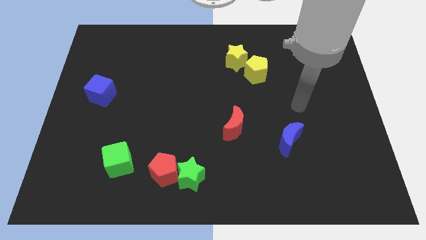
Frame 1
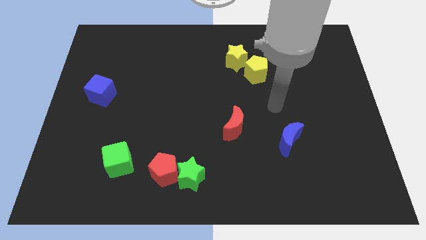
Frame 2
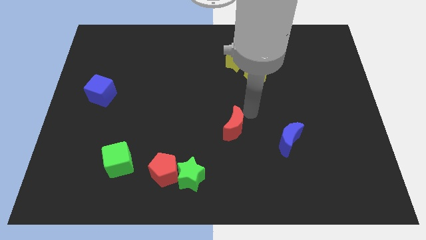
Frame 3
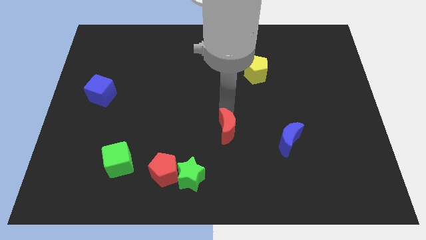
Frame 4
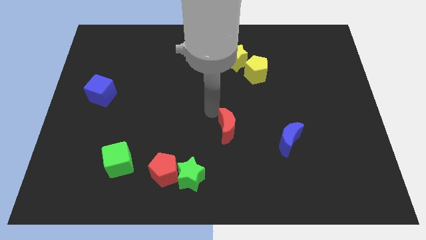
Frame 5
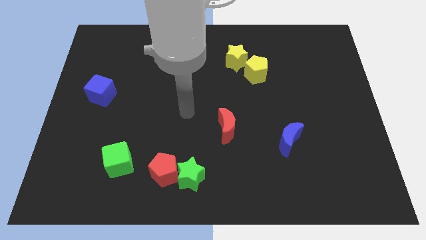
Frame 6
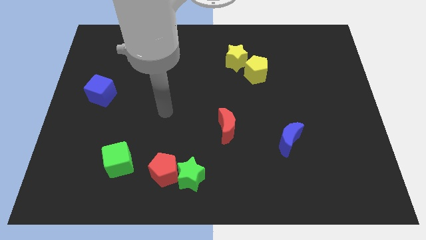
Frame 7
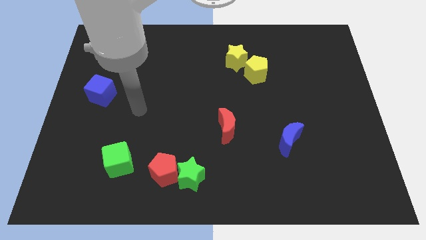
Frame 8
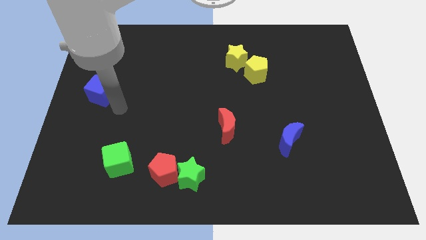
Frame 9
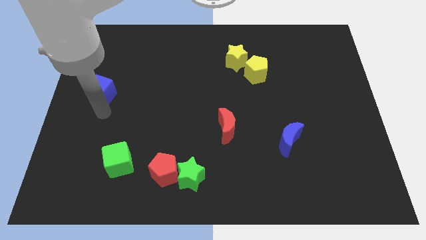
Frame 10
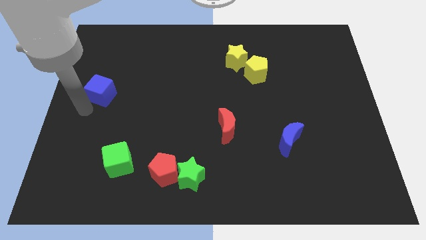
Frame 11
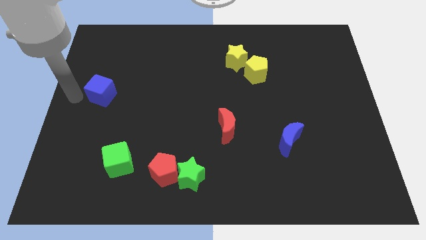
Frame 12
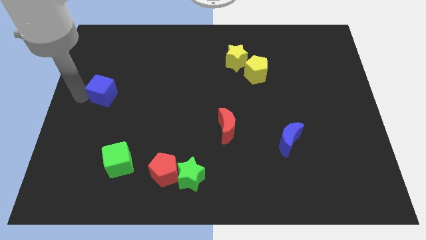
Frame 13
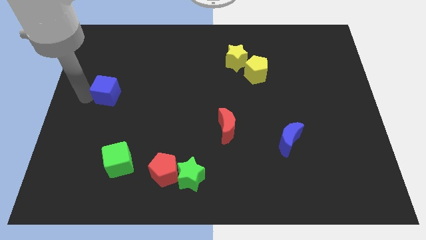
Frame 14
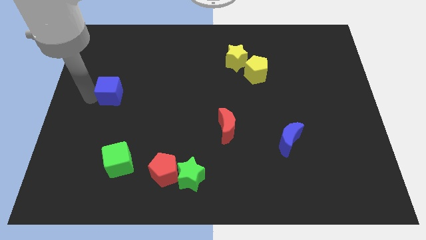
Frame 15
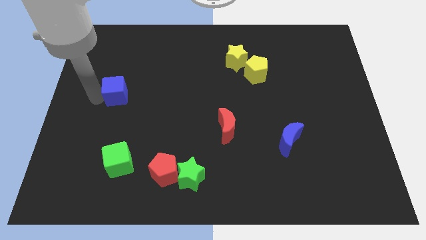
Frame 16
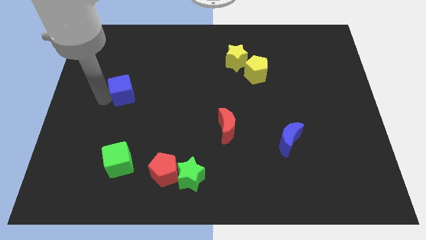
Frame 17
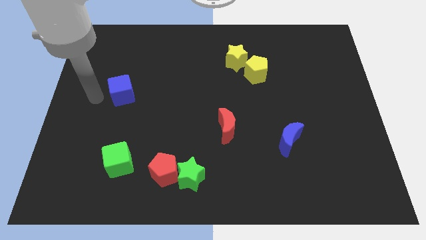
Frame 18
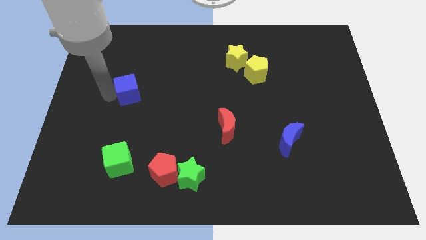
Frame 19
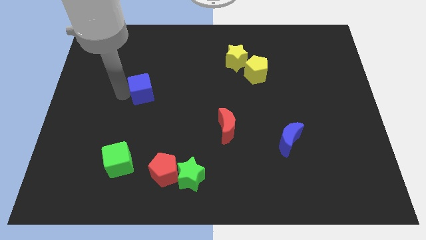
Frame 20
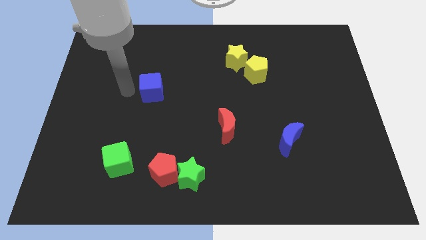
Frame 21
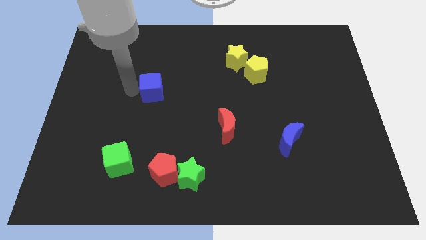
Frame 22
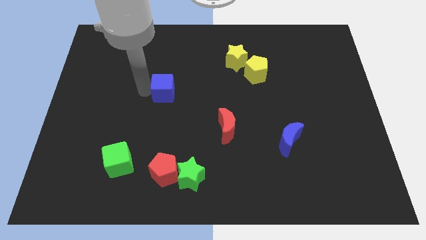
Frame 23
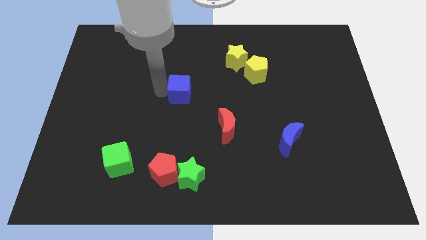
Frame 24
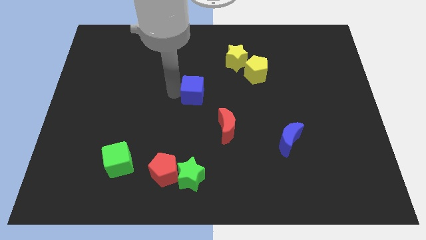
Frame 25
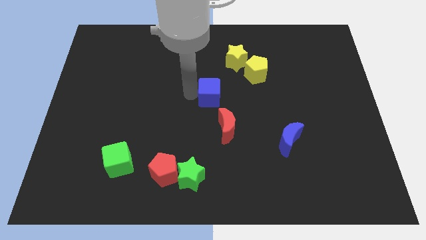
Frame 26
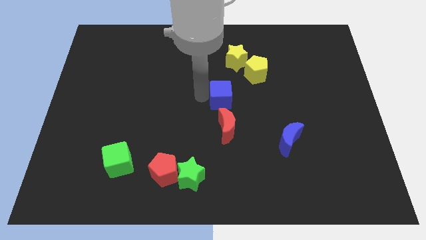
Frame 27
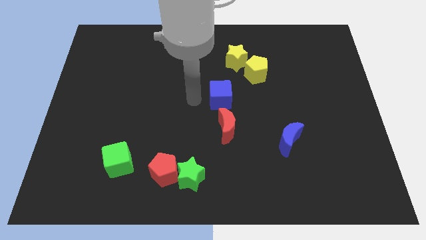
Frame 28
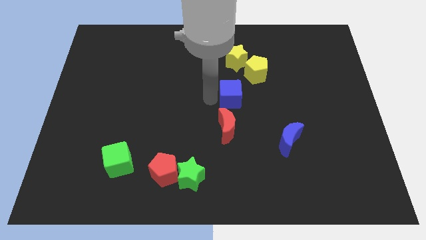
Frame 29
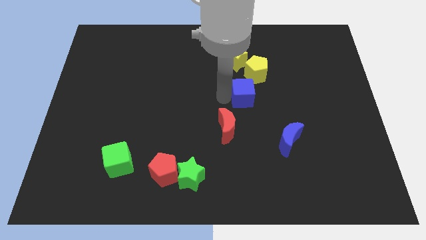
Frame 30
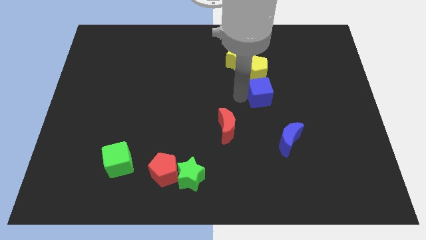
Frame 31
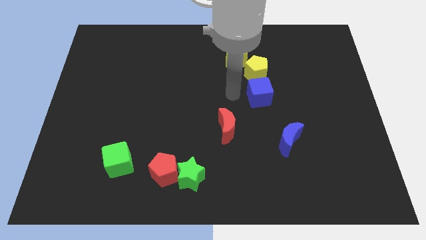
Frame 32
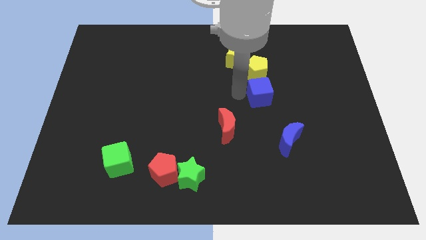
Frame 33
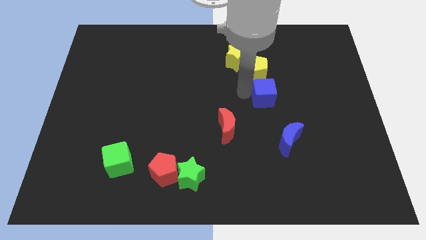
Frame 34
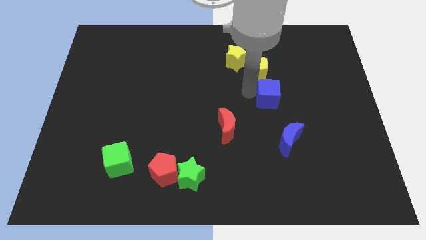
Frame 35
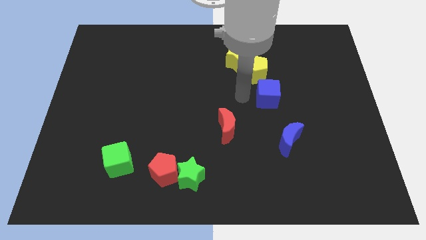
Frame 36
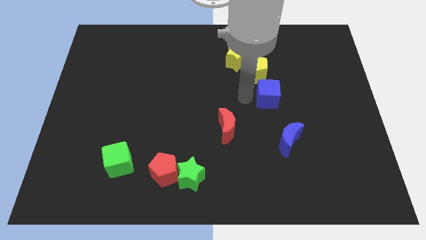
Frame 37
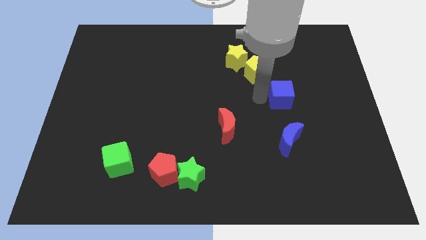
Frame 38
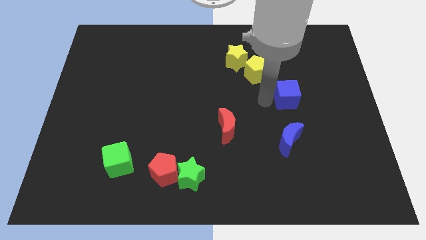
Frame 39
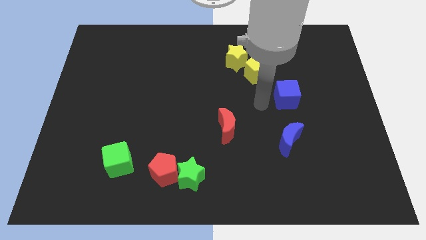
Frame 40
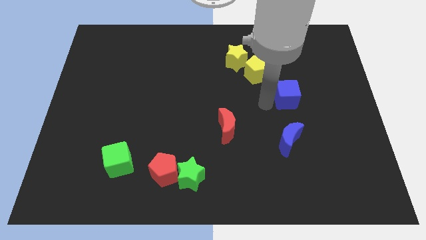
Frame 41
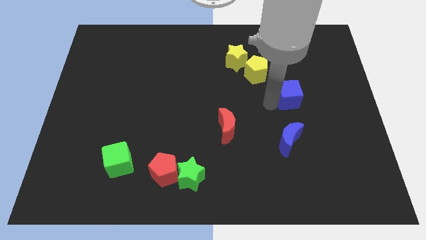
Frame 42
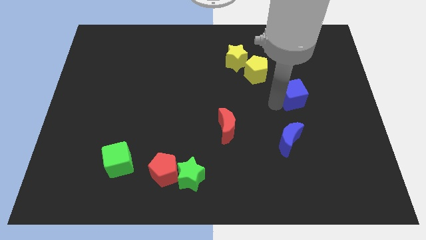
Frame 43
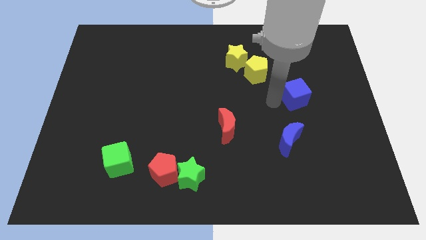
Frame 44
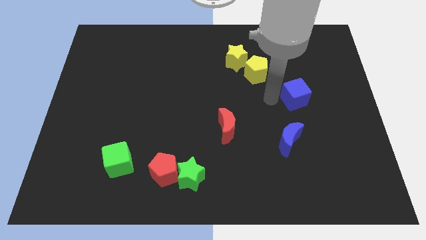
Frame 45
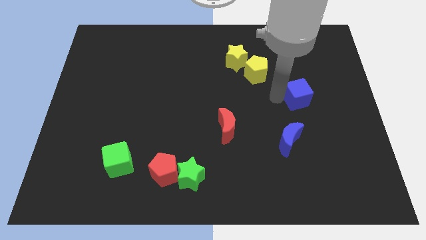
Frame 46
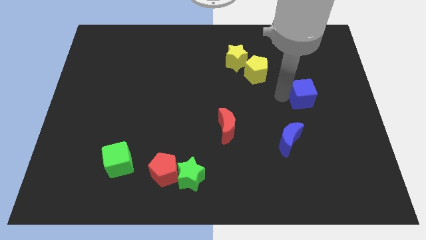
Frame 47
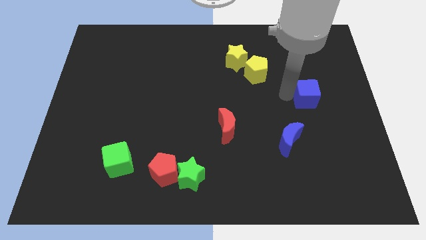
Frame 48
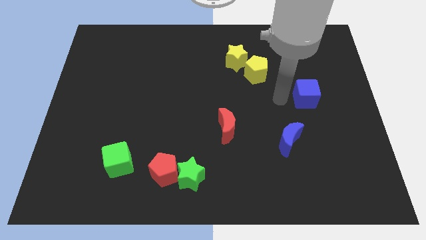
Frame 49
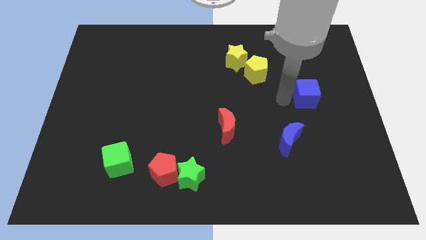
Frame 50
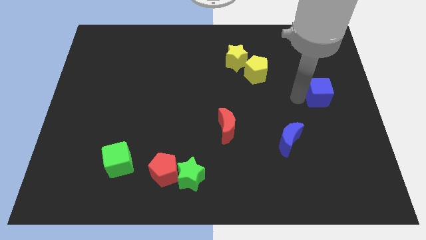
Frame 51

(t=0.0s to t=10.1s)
slide the blue cube to the center right

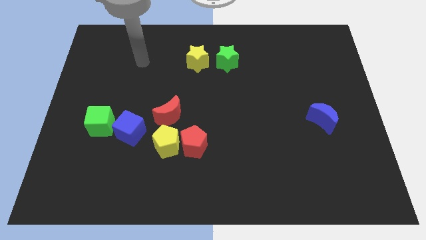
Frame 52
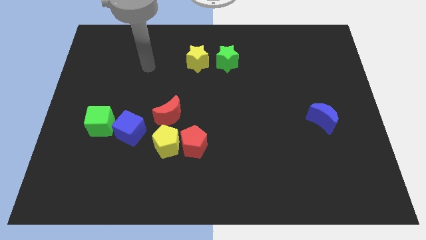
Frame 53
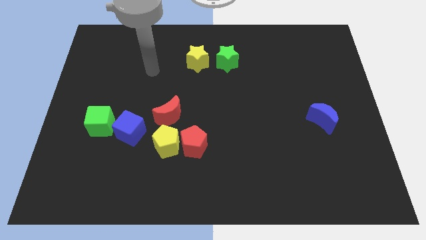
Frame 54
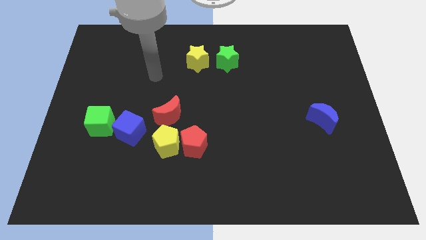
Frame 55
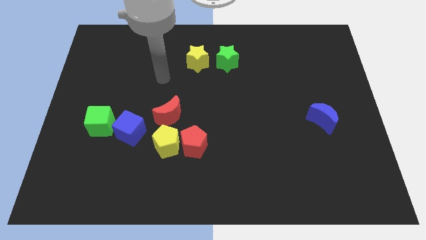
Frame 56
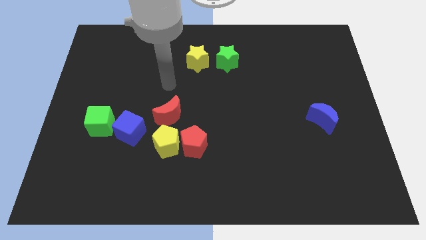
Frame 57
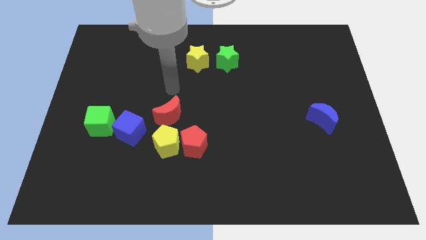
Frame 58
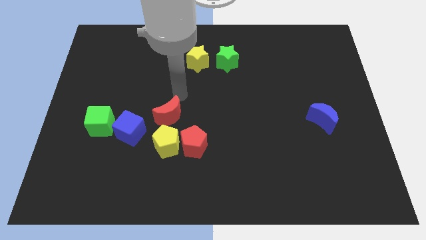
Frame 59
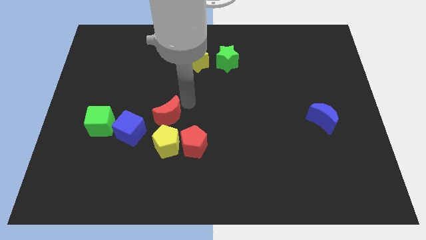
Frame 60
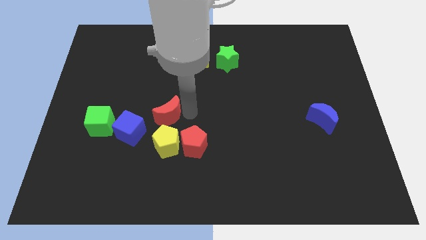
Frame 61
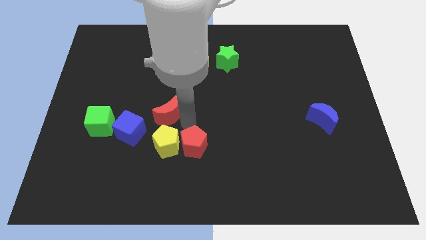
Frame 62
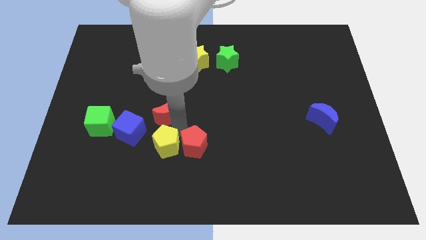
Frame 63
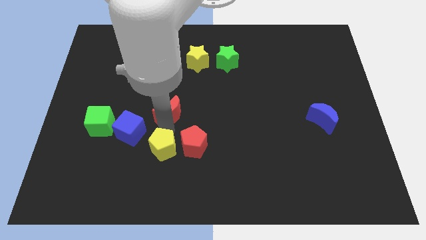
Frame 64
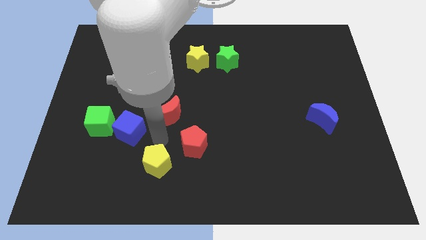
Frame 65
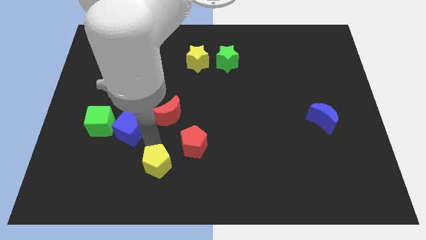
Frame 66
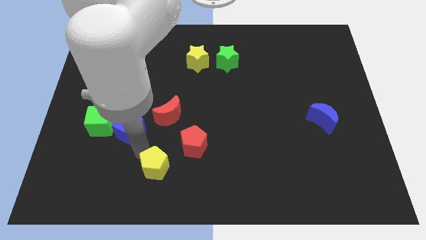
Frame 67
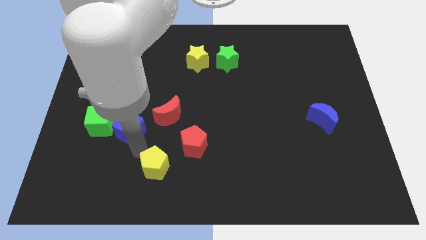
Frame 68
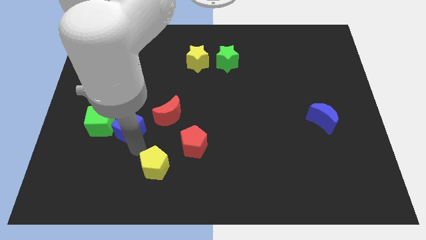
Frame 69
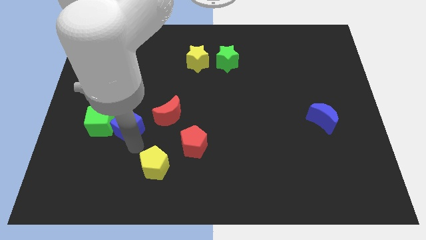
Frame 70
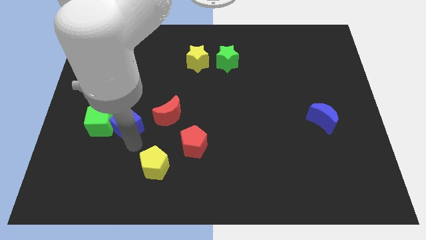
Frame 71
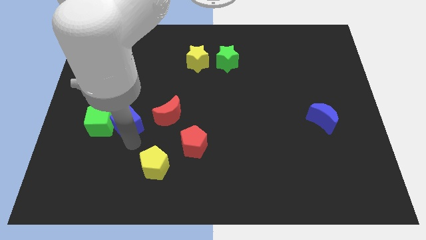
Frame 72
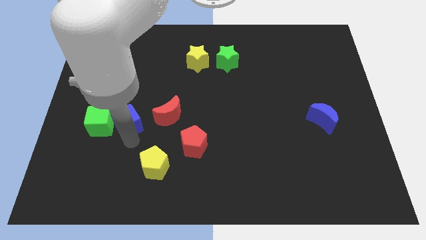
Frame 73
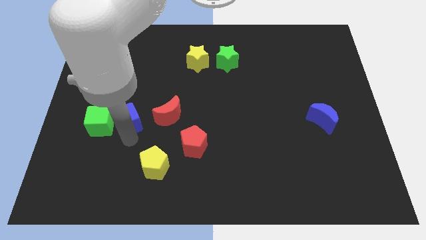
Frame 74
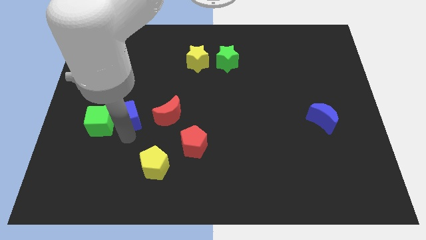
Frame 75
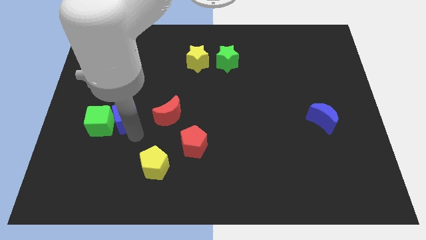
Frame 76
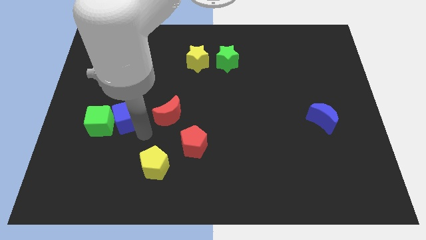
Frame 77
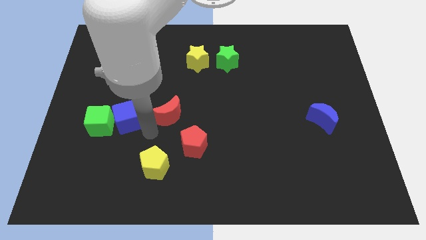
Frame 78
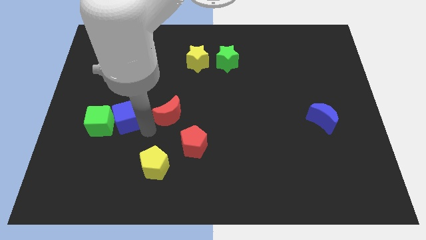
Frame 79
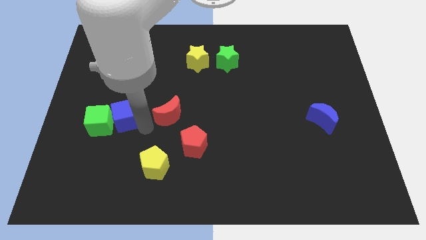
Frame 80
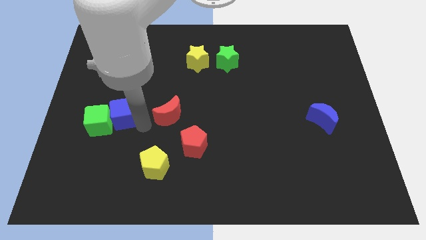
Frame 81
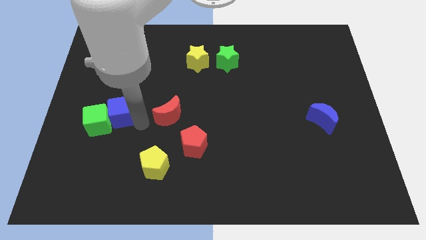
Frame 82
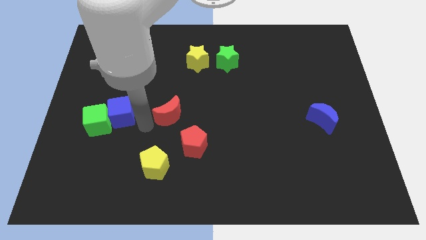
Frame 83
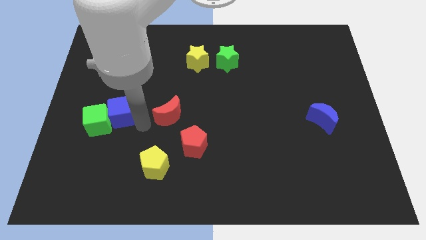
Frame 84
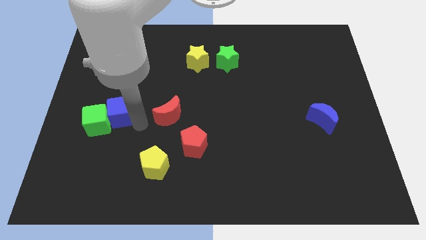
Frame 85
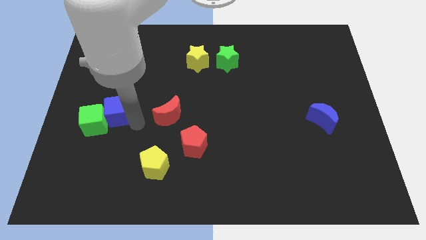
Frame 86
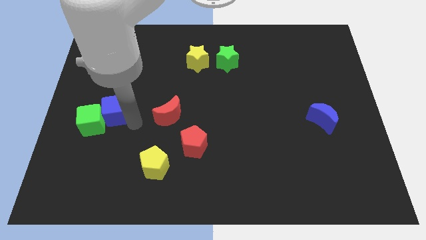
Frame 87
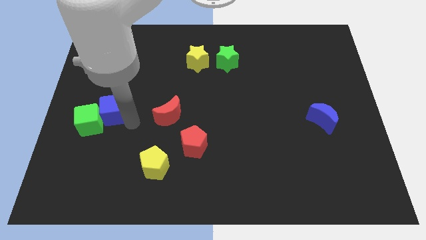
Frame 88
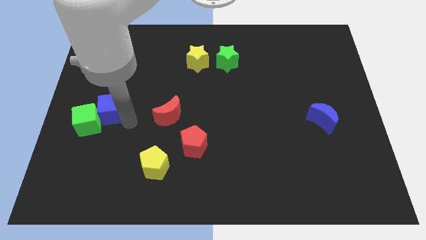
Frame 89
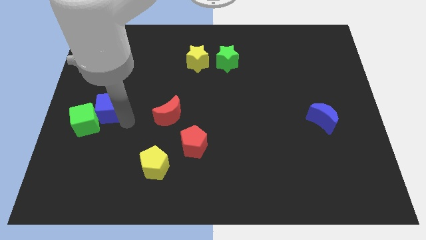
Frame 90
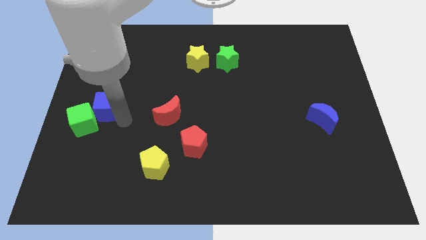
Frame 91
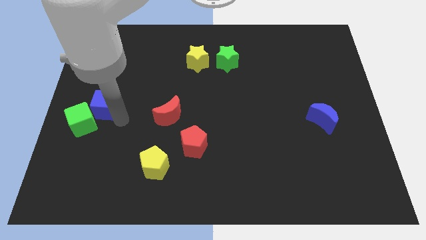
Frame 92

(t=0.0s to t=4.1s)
move the blue cube to the left side
